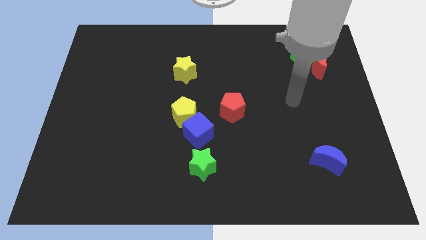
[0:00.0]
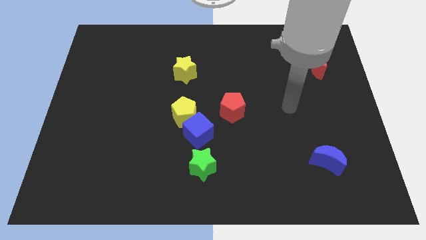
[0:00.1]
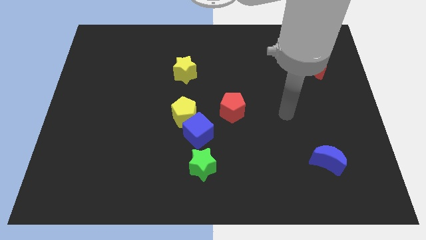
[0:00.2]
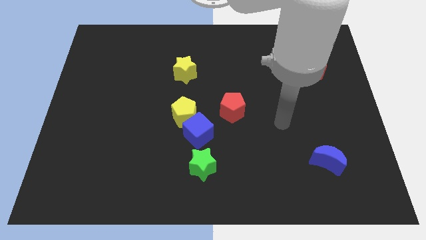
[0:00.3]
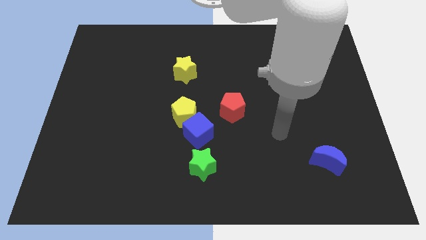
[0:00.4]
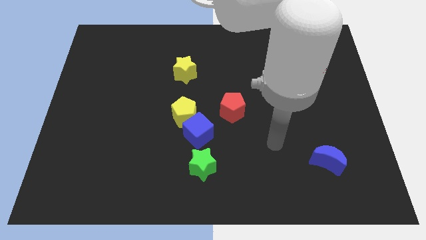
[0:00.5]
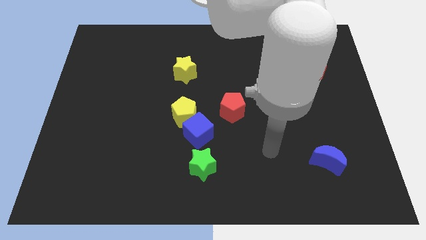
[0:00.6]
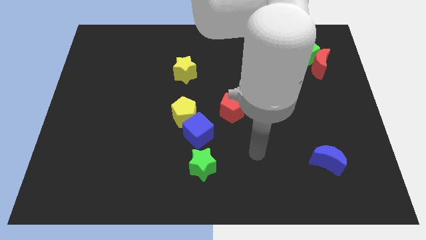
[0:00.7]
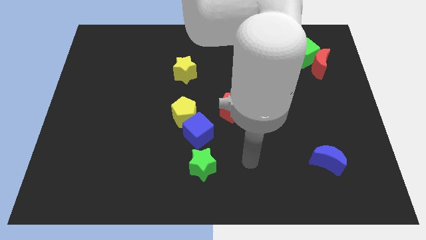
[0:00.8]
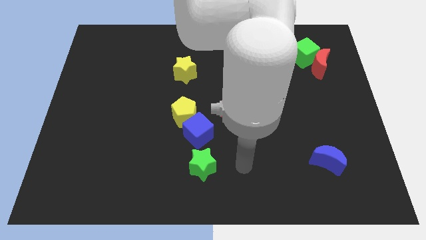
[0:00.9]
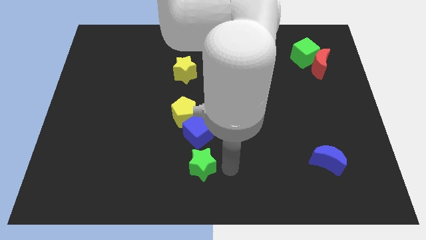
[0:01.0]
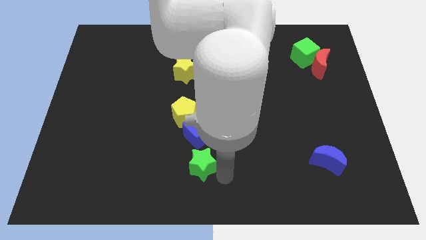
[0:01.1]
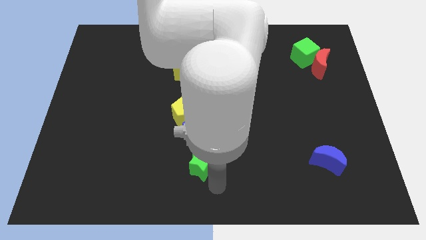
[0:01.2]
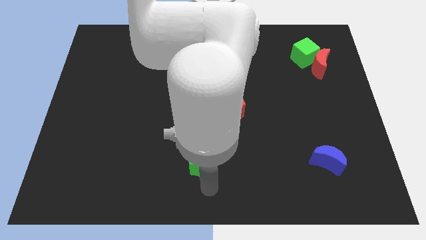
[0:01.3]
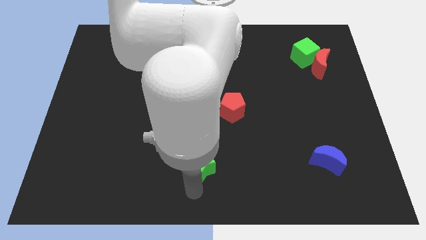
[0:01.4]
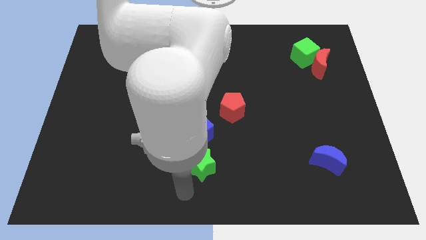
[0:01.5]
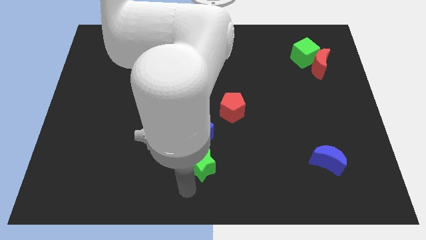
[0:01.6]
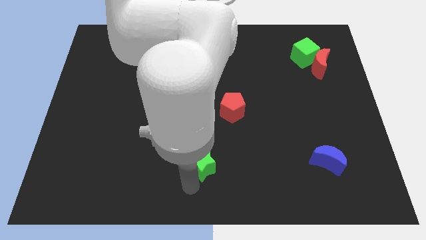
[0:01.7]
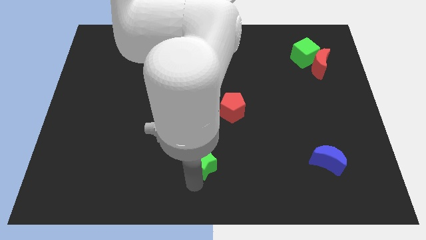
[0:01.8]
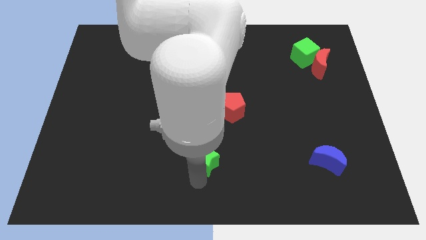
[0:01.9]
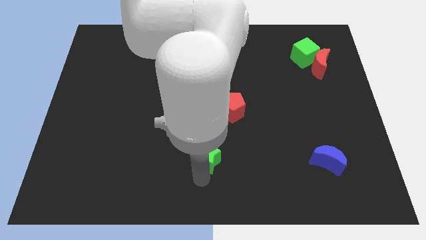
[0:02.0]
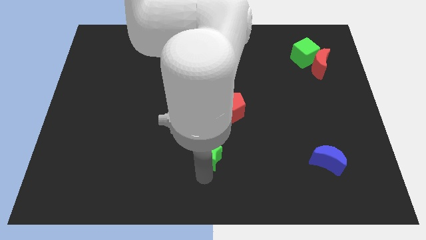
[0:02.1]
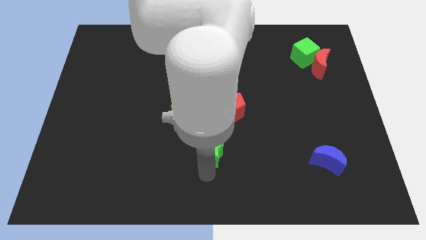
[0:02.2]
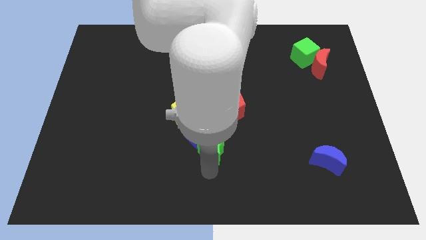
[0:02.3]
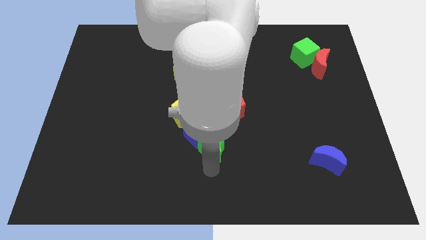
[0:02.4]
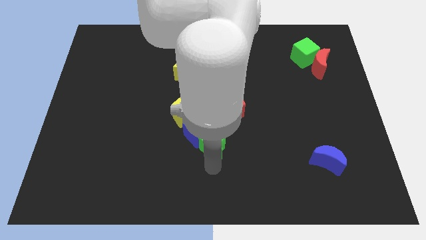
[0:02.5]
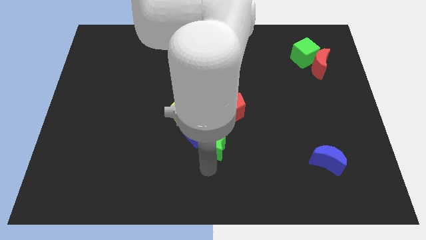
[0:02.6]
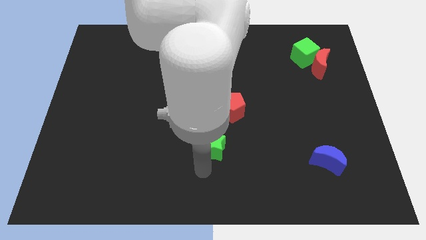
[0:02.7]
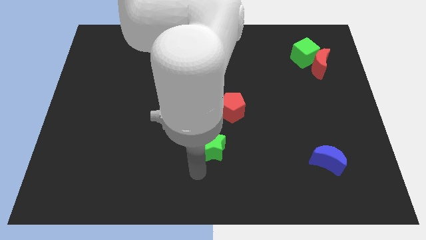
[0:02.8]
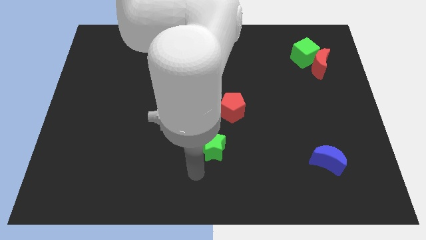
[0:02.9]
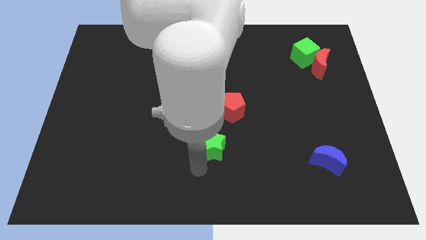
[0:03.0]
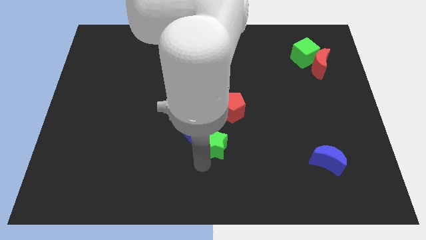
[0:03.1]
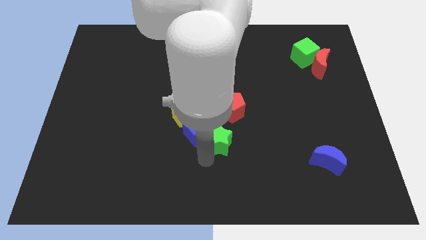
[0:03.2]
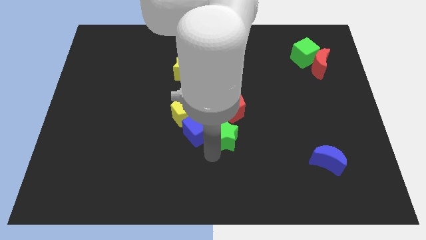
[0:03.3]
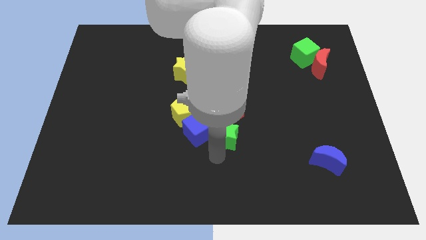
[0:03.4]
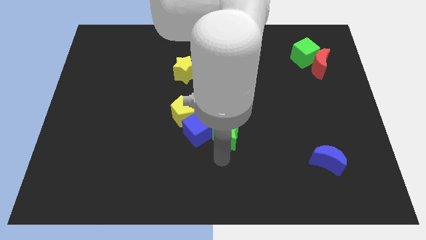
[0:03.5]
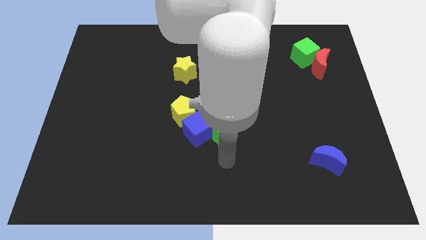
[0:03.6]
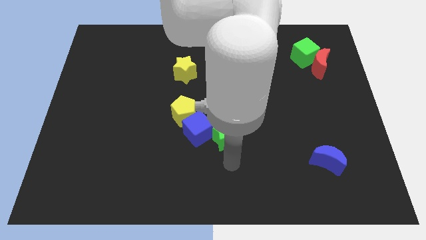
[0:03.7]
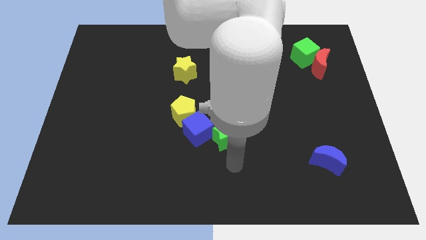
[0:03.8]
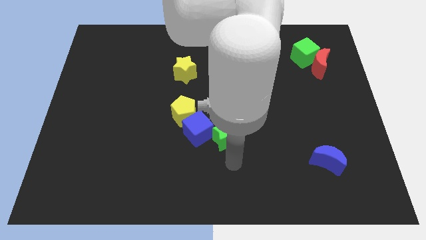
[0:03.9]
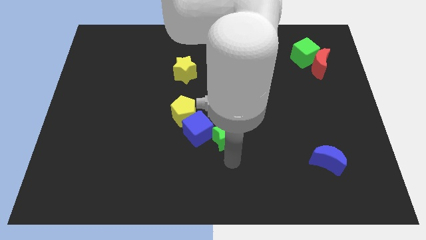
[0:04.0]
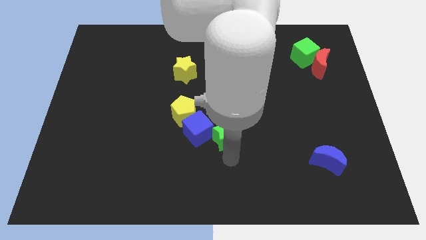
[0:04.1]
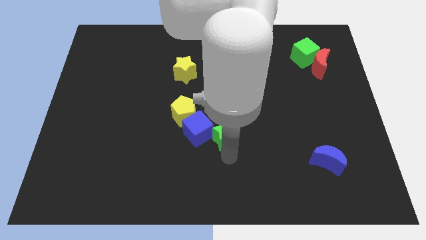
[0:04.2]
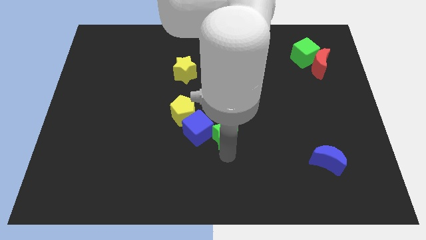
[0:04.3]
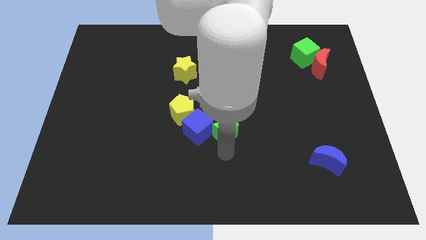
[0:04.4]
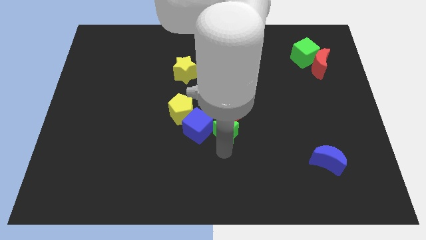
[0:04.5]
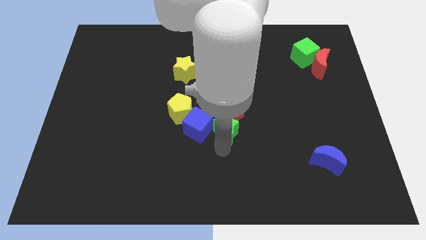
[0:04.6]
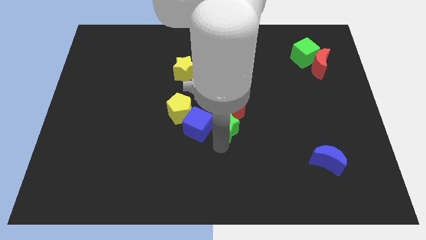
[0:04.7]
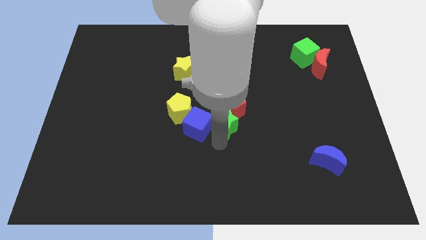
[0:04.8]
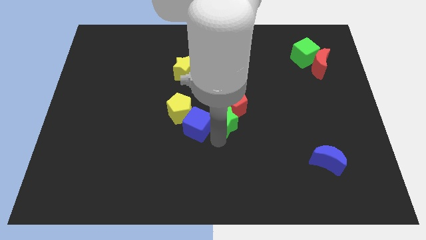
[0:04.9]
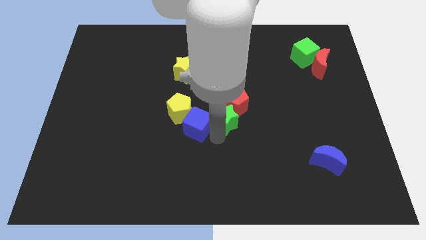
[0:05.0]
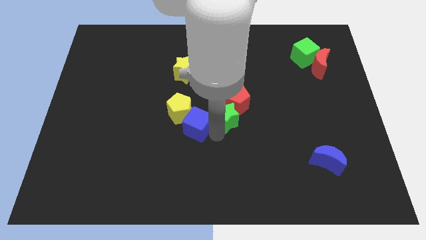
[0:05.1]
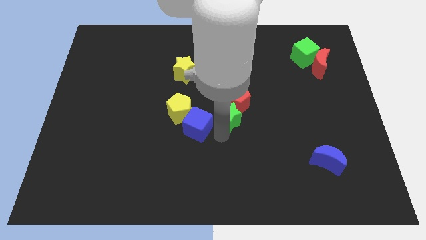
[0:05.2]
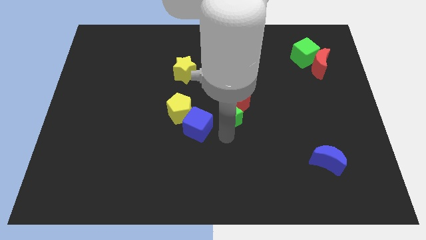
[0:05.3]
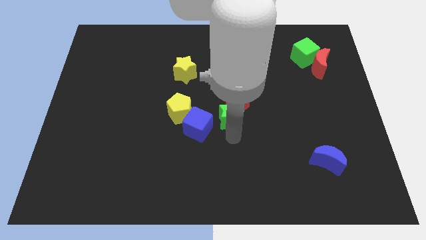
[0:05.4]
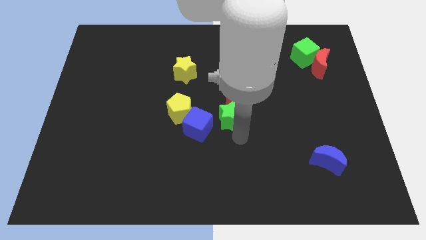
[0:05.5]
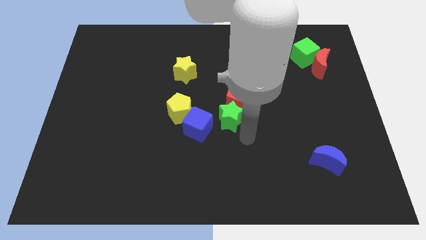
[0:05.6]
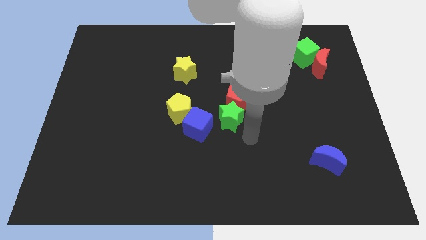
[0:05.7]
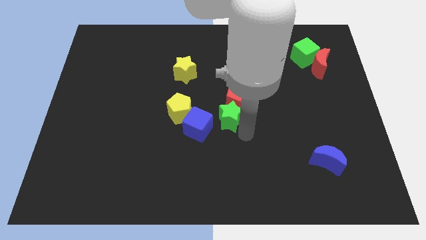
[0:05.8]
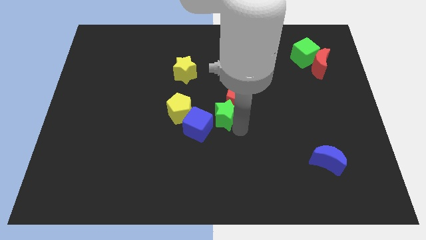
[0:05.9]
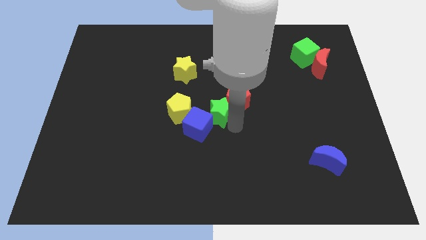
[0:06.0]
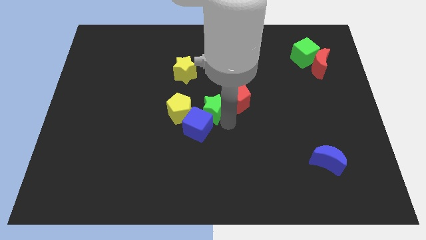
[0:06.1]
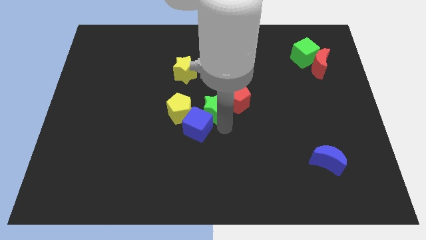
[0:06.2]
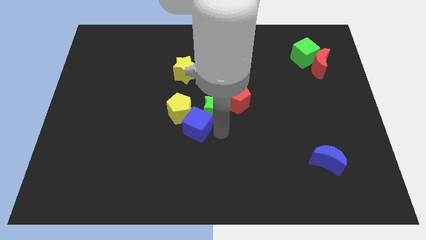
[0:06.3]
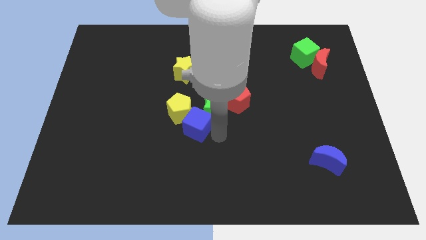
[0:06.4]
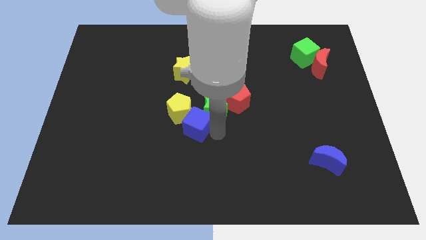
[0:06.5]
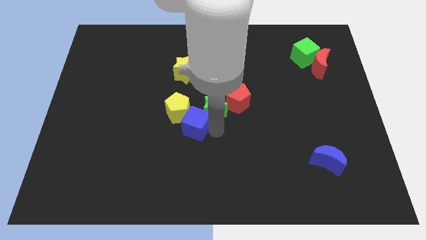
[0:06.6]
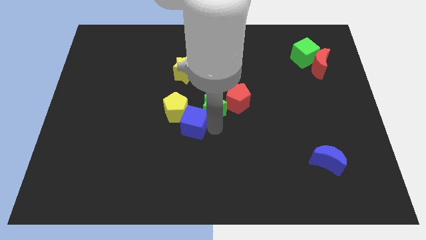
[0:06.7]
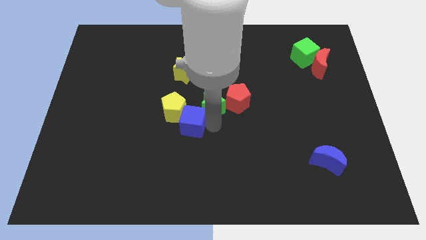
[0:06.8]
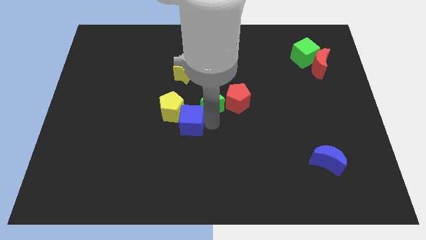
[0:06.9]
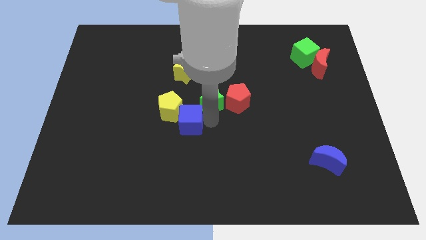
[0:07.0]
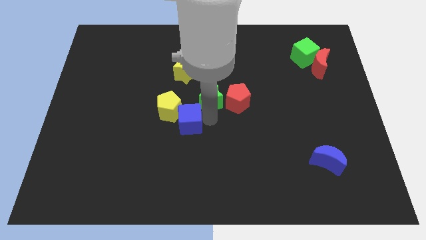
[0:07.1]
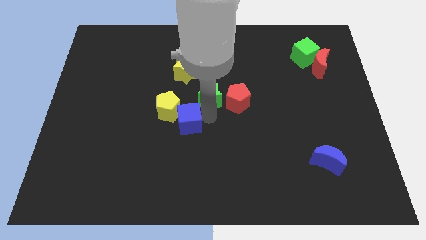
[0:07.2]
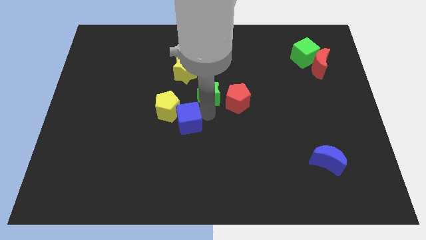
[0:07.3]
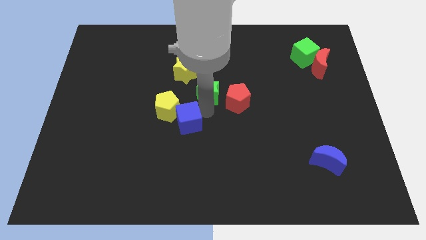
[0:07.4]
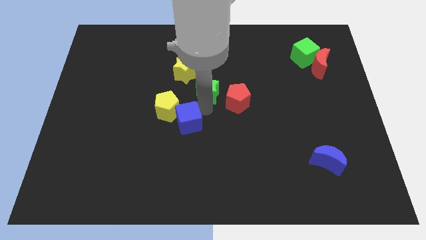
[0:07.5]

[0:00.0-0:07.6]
push the green star upwards

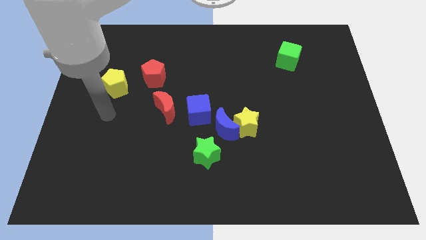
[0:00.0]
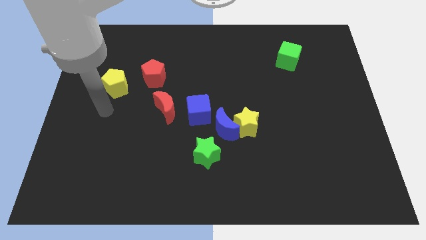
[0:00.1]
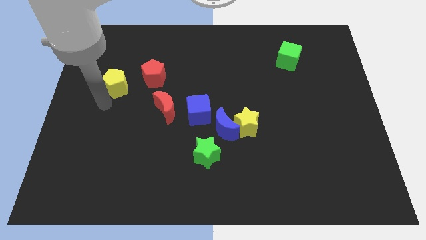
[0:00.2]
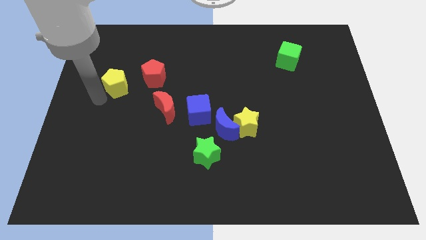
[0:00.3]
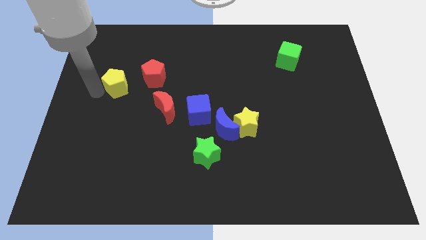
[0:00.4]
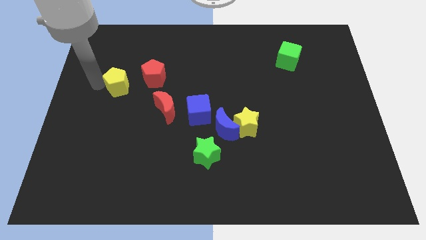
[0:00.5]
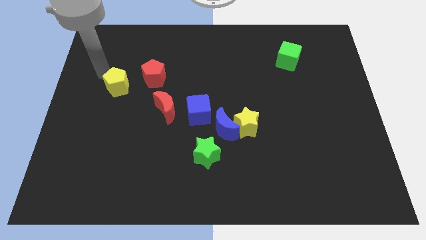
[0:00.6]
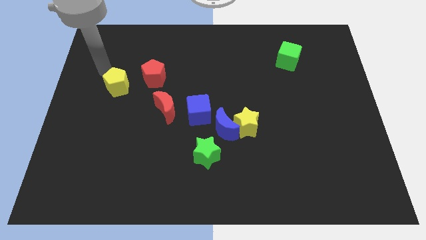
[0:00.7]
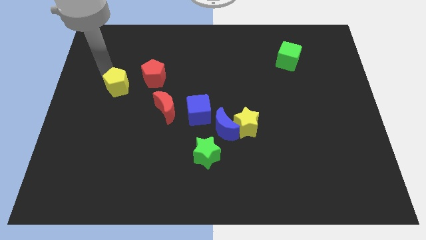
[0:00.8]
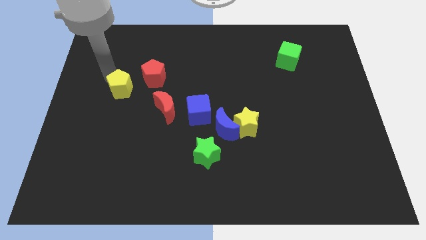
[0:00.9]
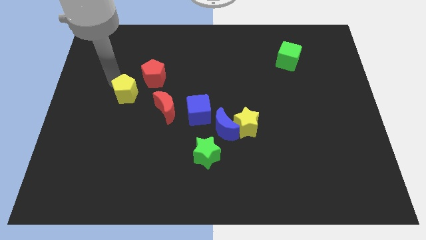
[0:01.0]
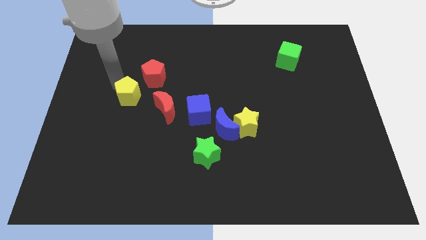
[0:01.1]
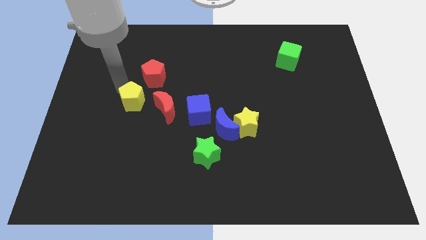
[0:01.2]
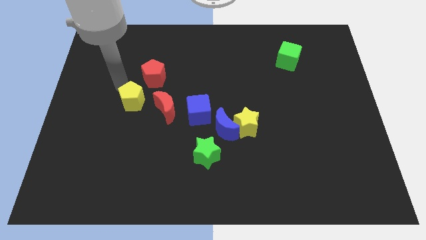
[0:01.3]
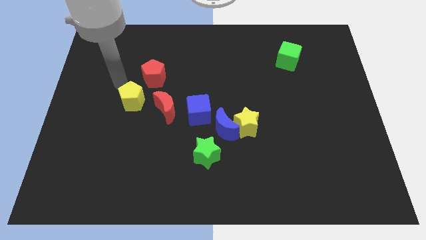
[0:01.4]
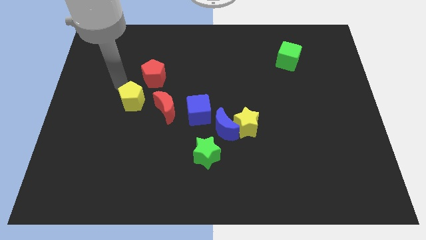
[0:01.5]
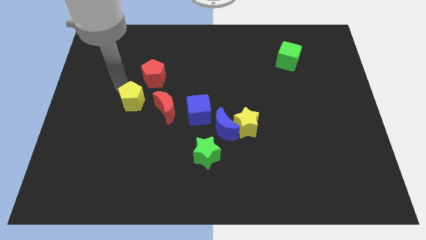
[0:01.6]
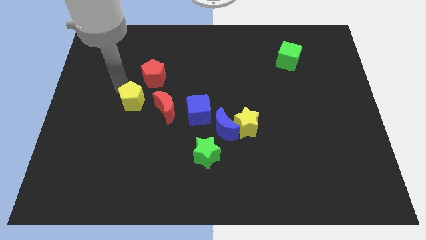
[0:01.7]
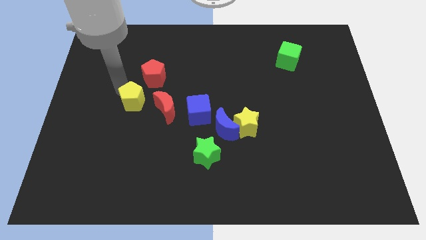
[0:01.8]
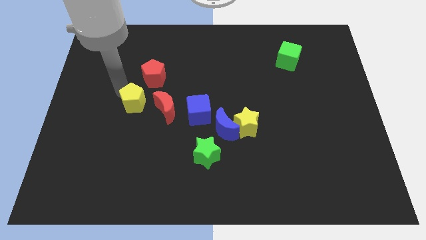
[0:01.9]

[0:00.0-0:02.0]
slightly push the yellow pentagon down and then to the right
